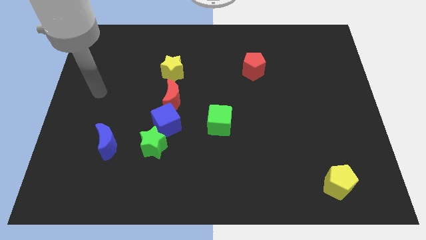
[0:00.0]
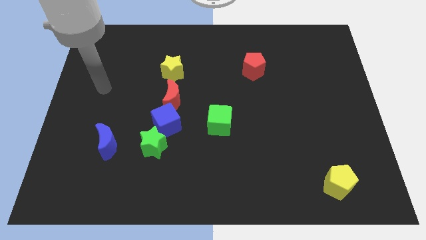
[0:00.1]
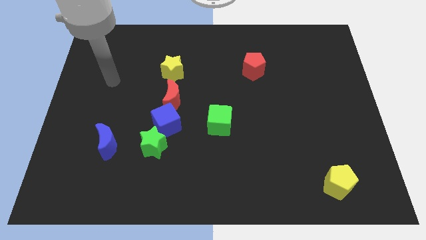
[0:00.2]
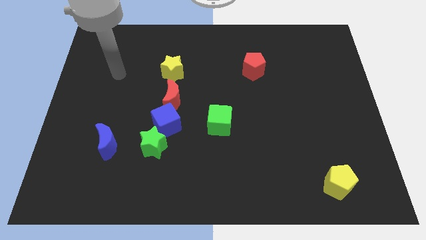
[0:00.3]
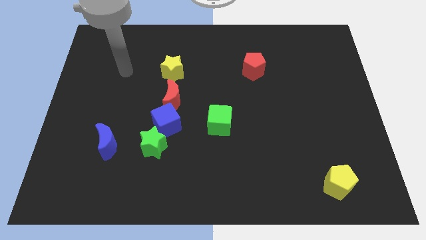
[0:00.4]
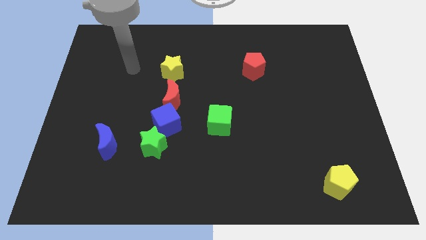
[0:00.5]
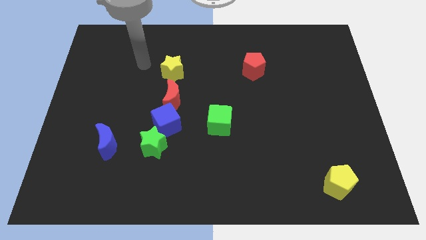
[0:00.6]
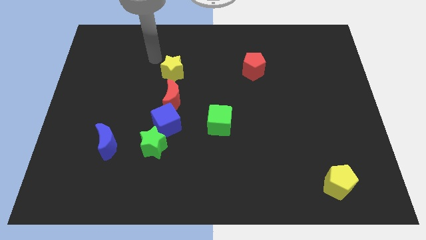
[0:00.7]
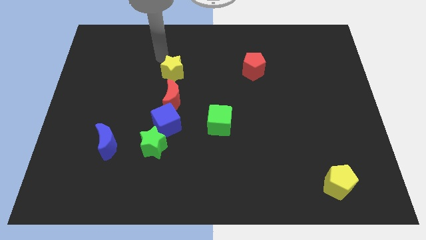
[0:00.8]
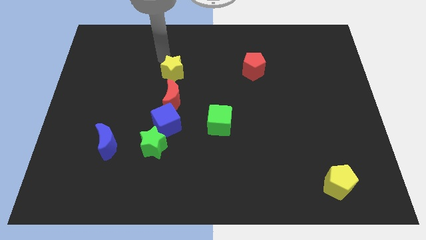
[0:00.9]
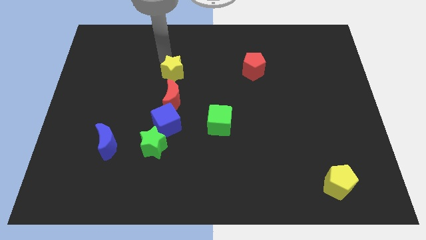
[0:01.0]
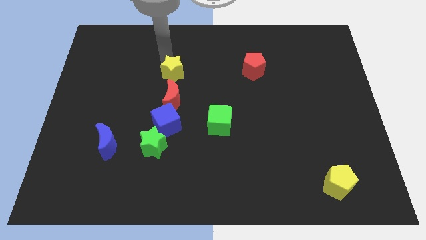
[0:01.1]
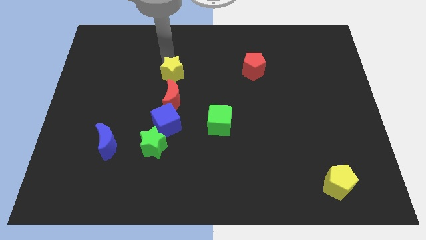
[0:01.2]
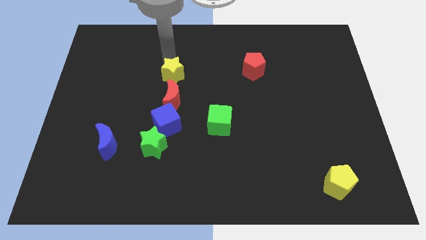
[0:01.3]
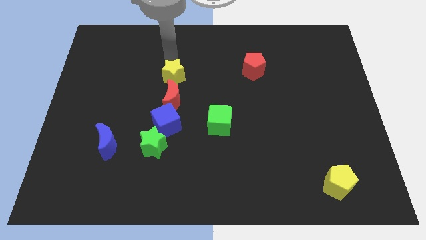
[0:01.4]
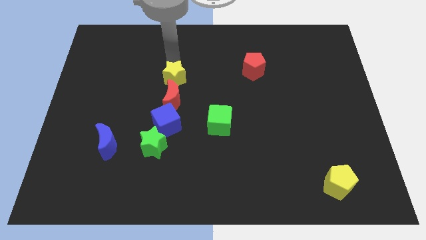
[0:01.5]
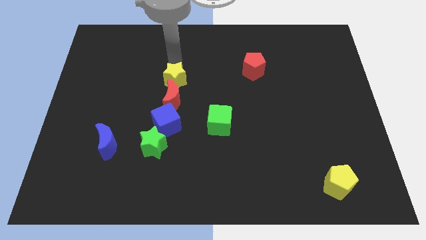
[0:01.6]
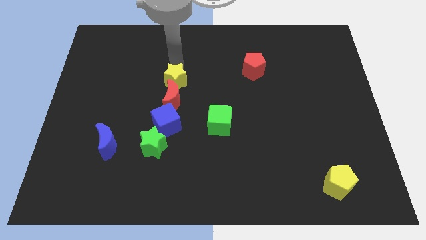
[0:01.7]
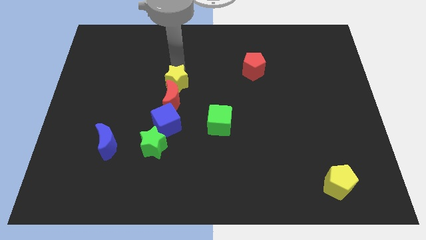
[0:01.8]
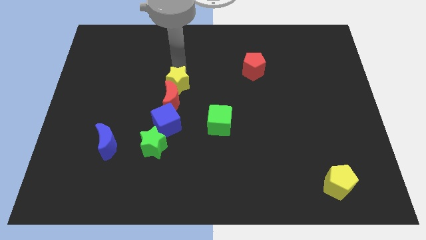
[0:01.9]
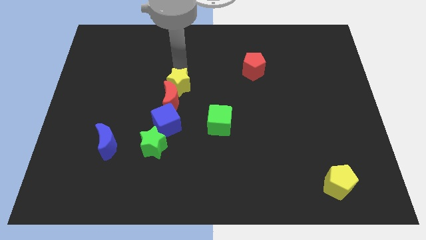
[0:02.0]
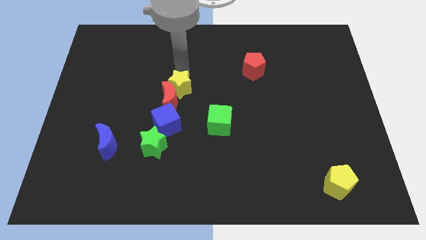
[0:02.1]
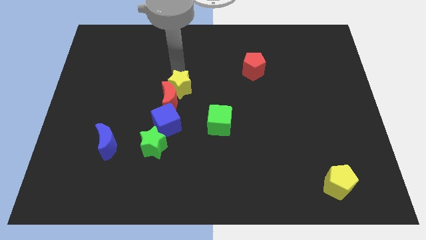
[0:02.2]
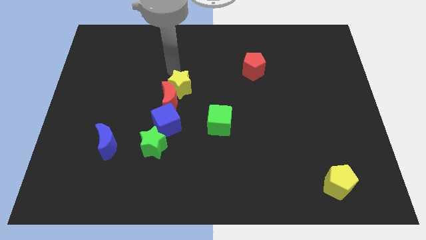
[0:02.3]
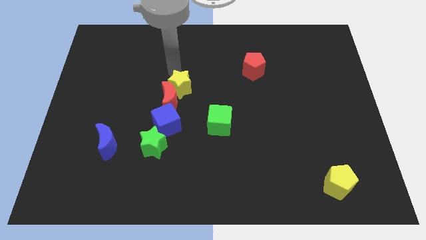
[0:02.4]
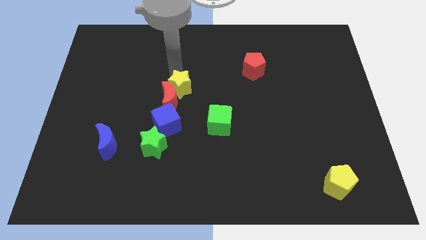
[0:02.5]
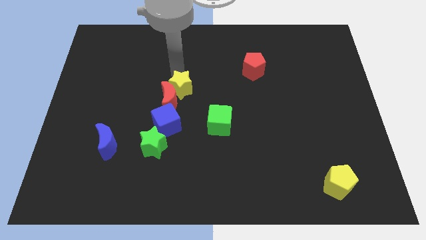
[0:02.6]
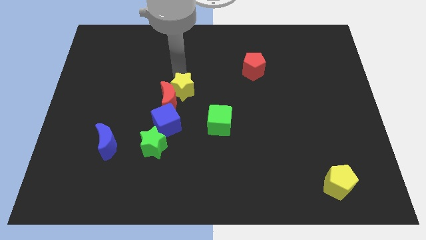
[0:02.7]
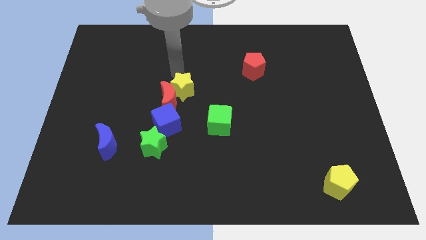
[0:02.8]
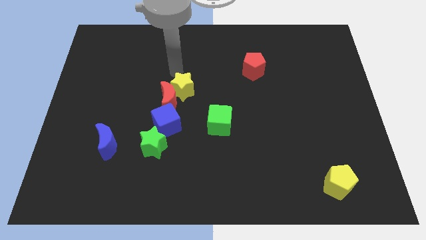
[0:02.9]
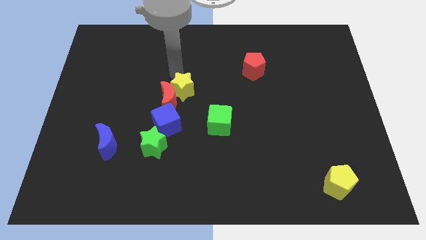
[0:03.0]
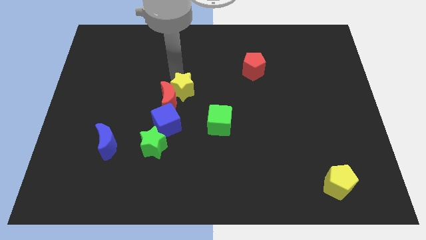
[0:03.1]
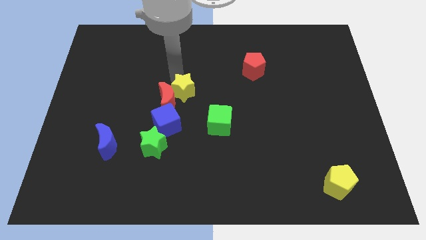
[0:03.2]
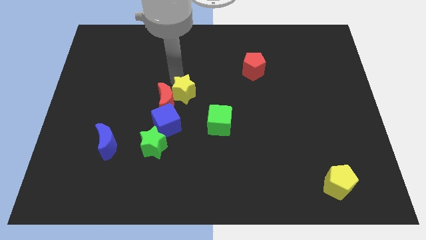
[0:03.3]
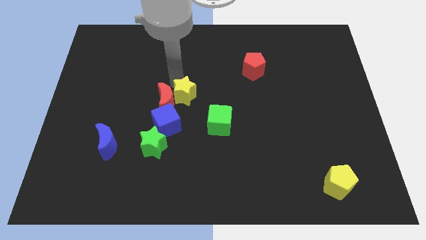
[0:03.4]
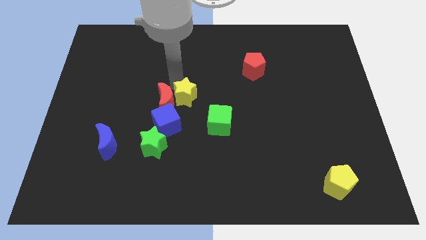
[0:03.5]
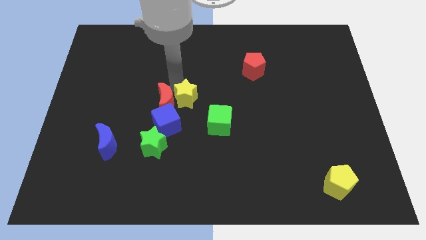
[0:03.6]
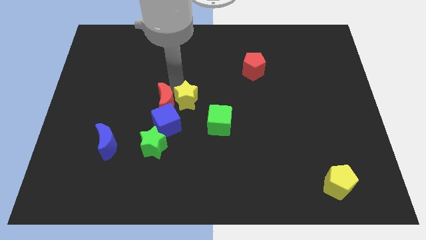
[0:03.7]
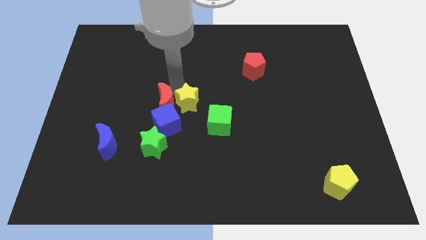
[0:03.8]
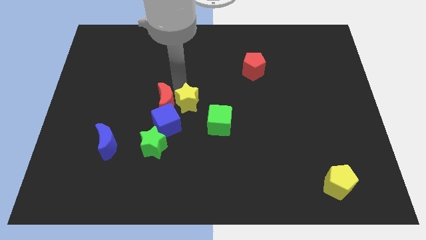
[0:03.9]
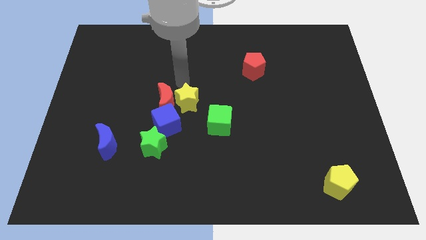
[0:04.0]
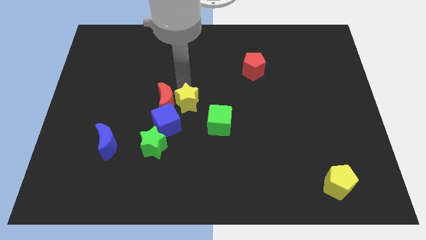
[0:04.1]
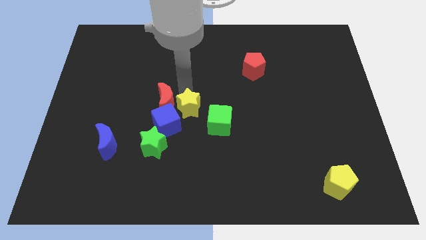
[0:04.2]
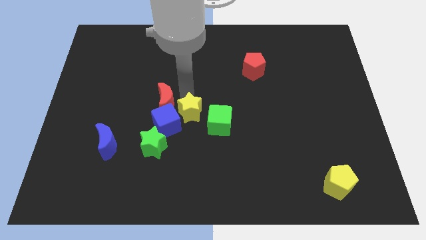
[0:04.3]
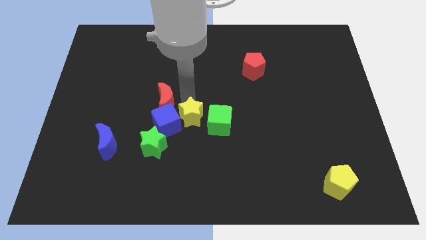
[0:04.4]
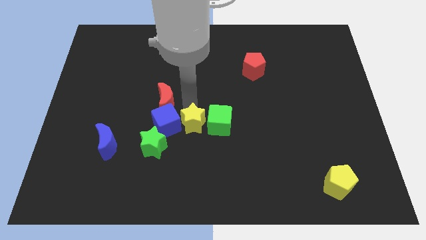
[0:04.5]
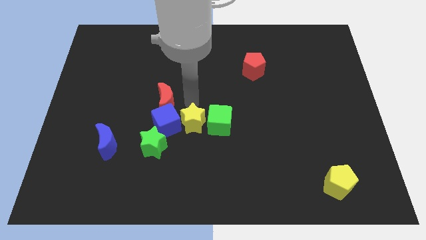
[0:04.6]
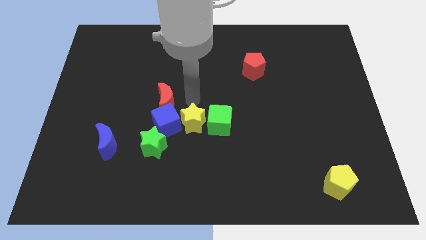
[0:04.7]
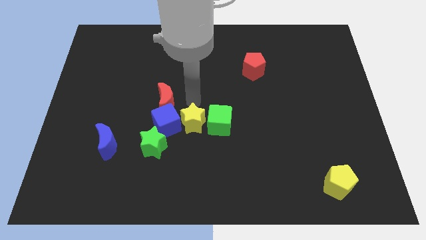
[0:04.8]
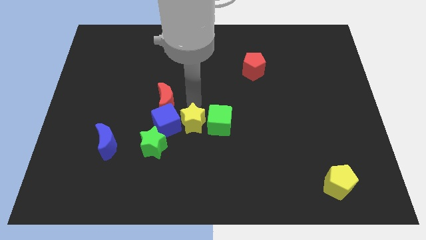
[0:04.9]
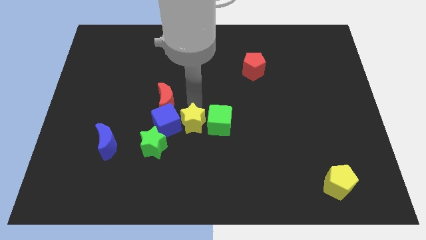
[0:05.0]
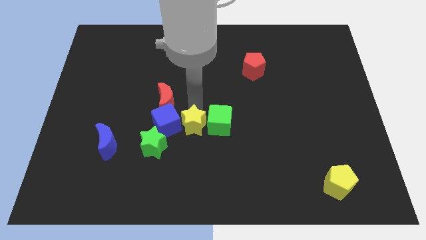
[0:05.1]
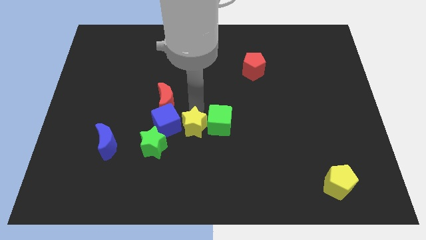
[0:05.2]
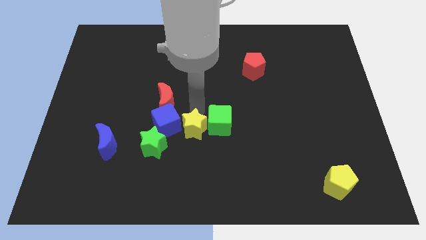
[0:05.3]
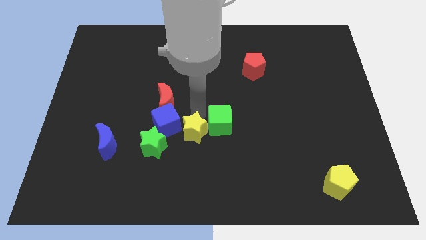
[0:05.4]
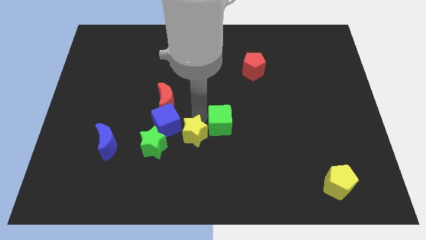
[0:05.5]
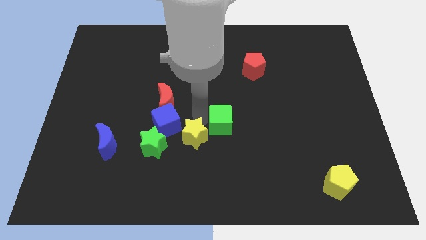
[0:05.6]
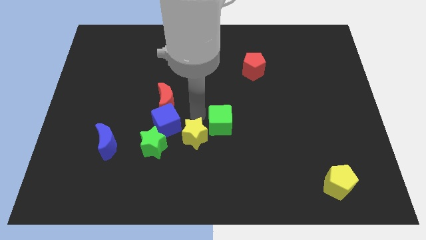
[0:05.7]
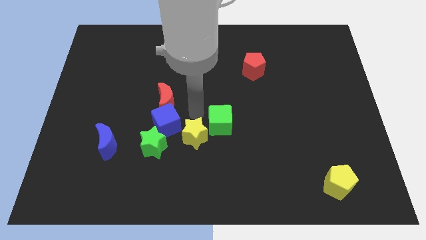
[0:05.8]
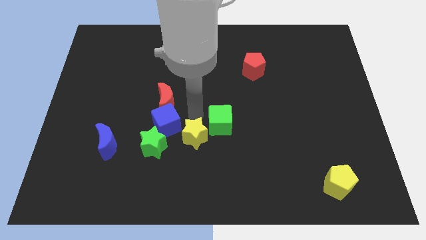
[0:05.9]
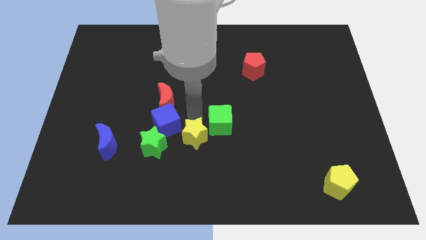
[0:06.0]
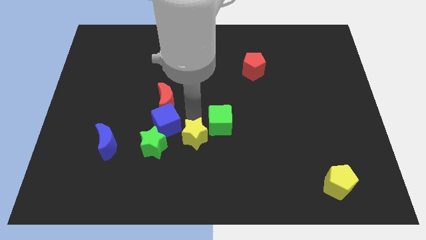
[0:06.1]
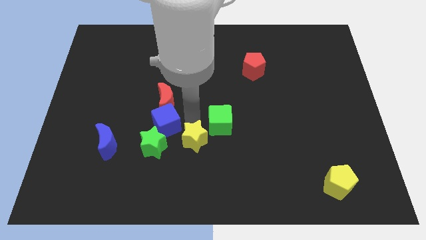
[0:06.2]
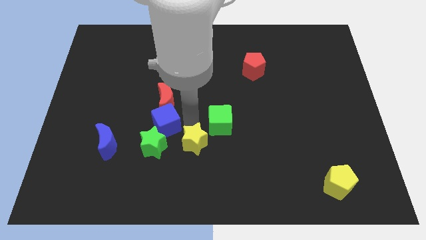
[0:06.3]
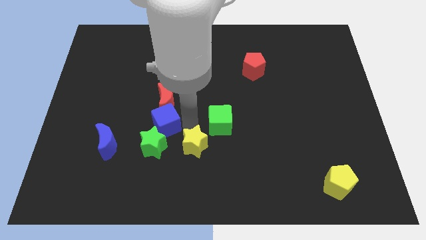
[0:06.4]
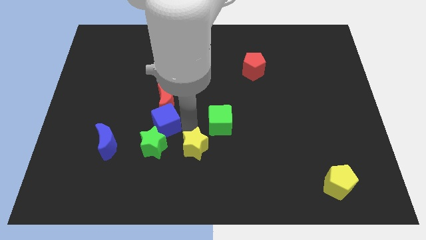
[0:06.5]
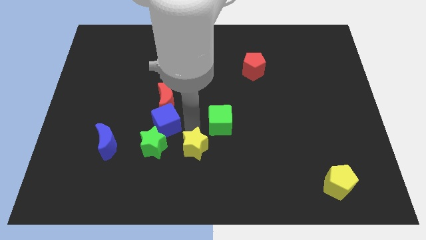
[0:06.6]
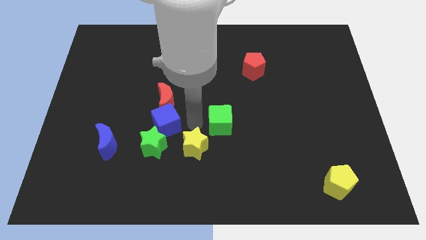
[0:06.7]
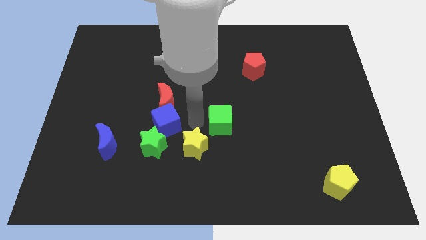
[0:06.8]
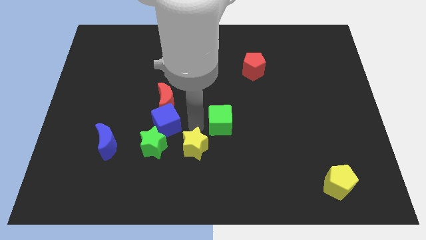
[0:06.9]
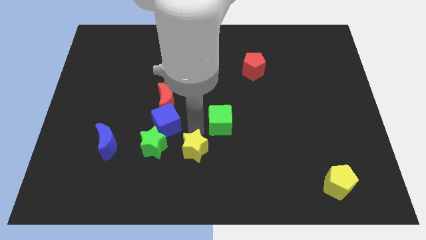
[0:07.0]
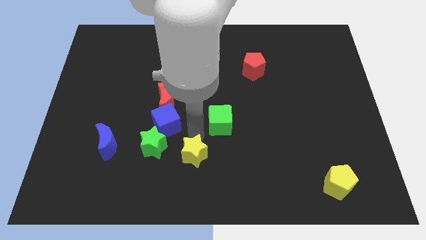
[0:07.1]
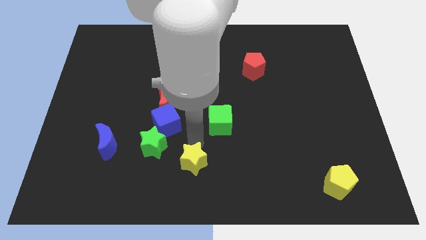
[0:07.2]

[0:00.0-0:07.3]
push the yellow star to the bottom side
